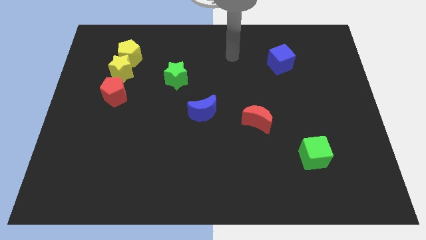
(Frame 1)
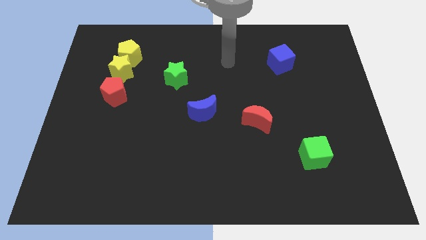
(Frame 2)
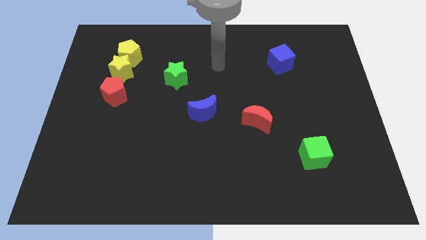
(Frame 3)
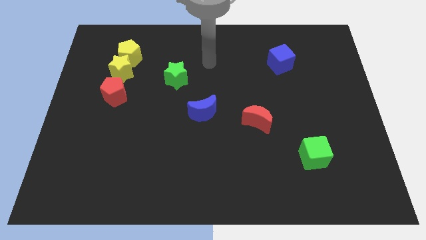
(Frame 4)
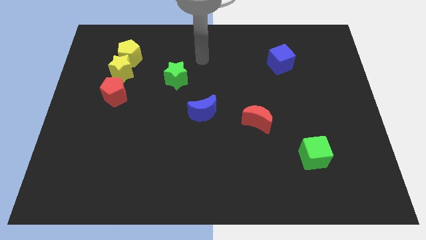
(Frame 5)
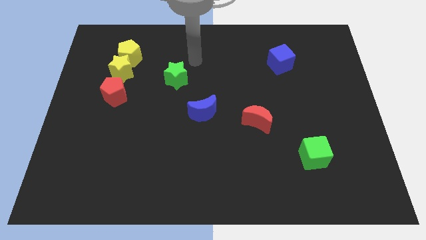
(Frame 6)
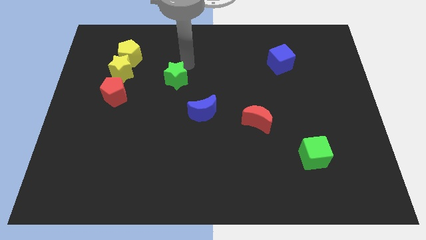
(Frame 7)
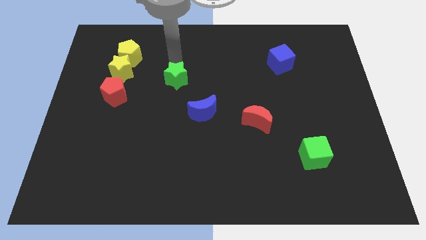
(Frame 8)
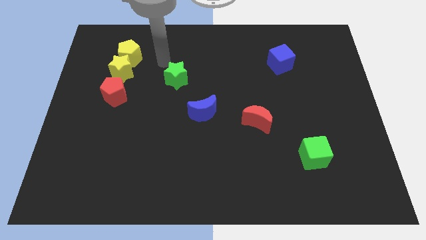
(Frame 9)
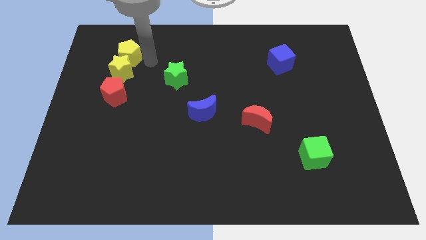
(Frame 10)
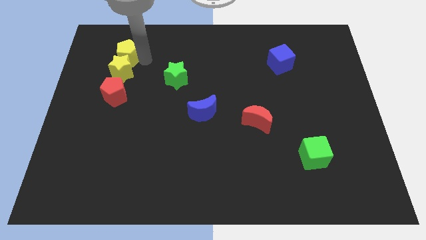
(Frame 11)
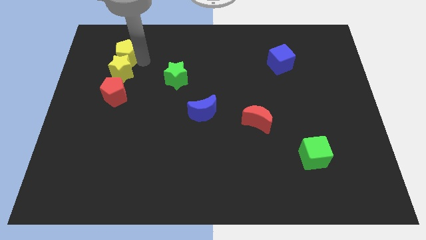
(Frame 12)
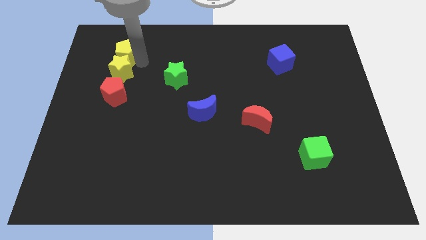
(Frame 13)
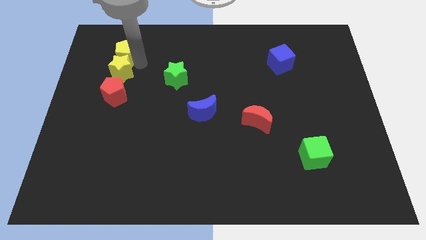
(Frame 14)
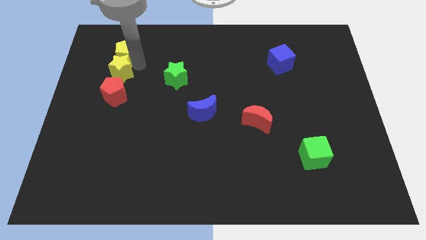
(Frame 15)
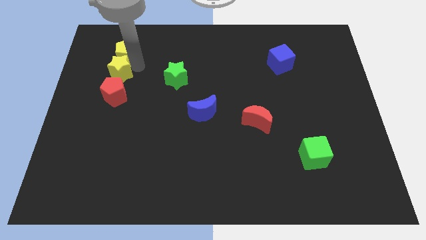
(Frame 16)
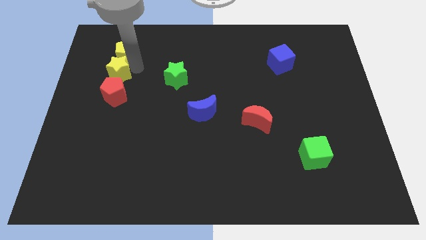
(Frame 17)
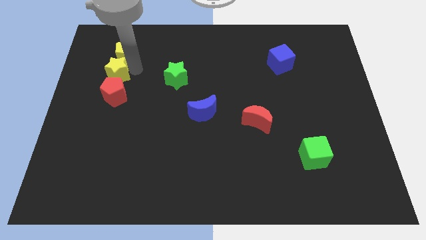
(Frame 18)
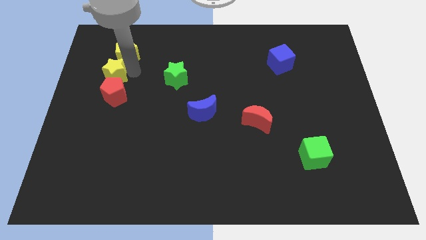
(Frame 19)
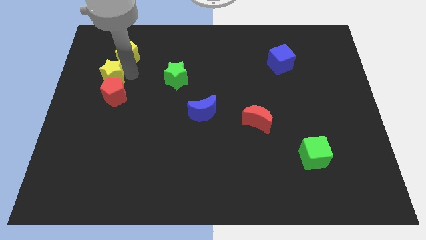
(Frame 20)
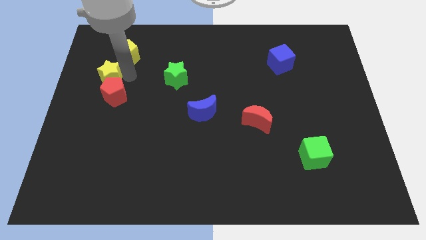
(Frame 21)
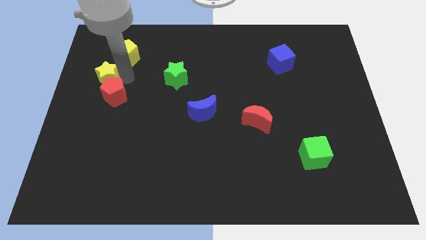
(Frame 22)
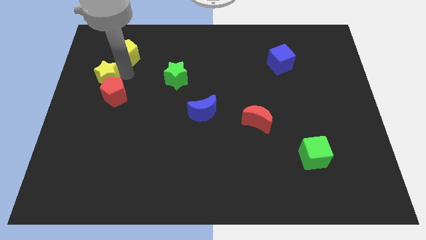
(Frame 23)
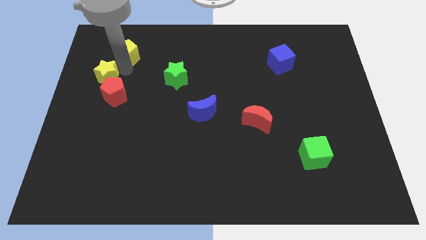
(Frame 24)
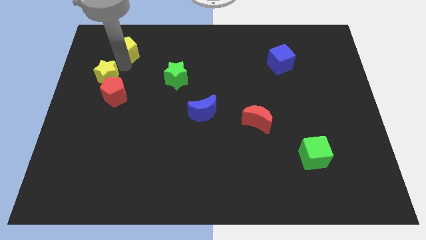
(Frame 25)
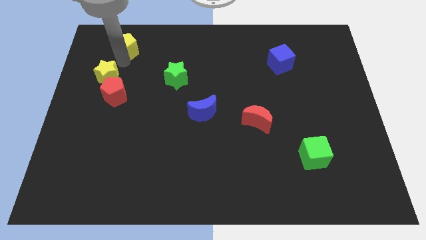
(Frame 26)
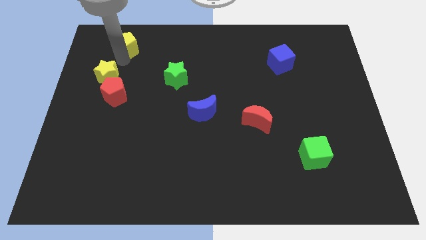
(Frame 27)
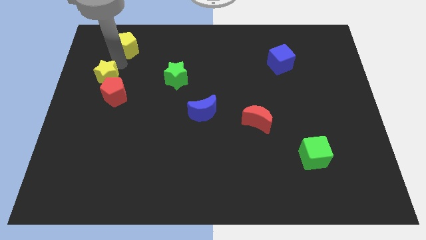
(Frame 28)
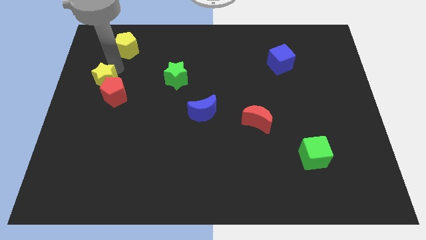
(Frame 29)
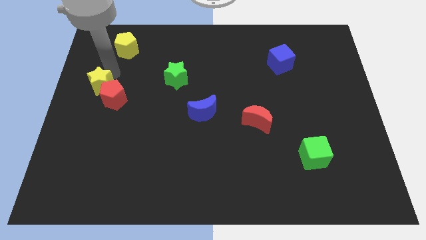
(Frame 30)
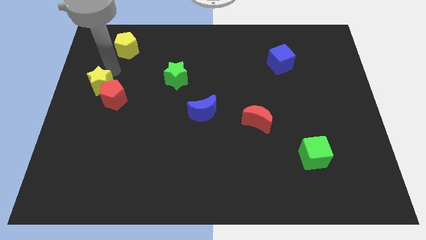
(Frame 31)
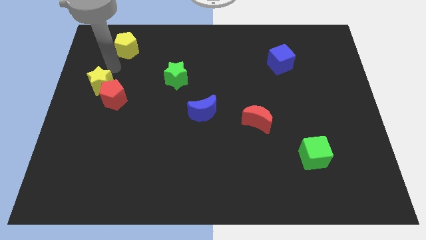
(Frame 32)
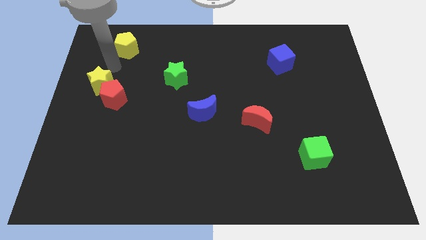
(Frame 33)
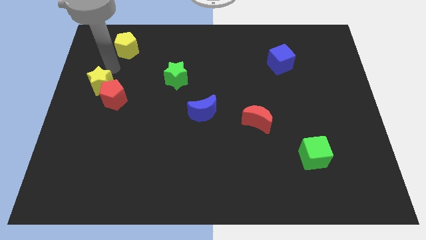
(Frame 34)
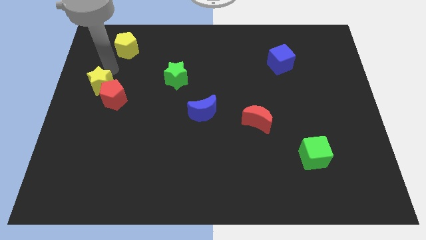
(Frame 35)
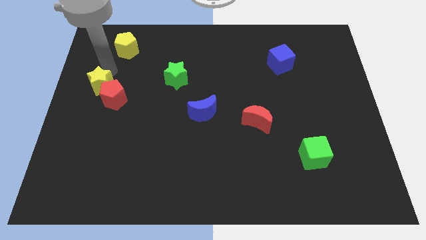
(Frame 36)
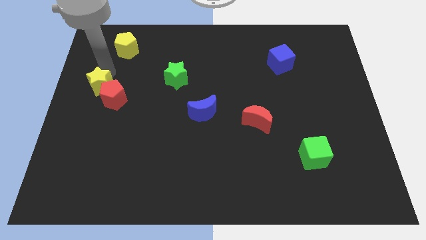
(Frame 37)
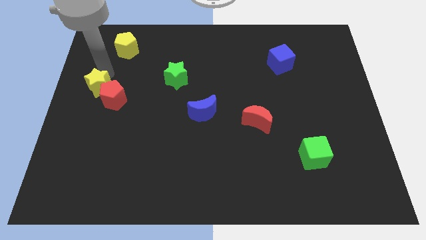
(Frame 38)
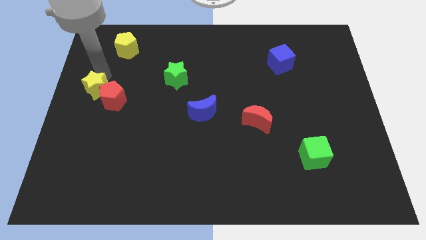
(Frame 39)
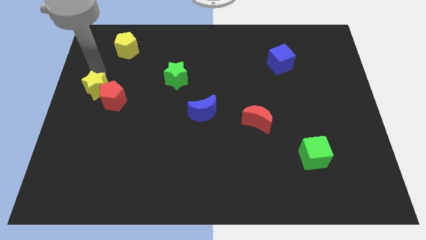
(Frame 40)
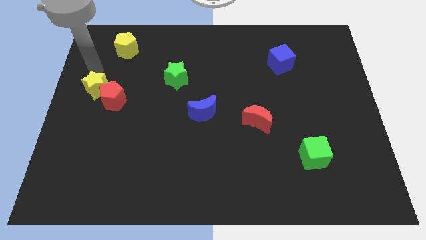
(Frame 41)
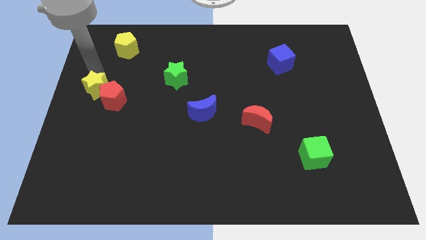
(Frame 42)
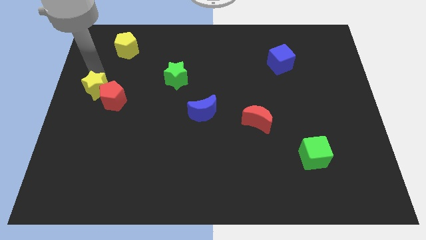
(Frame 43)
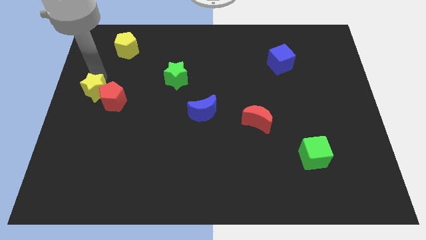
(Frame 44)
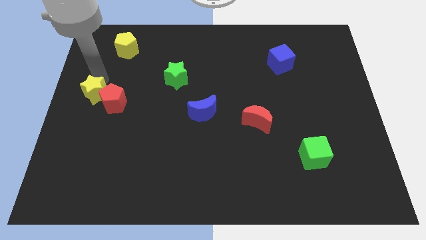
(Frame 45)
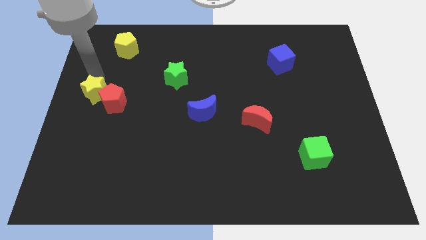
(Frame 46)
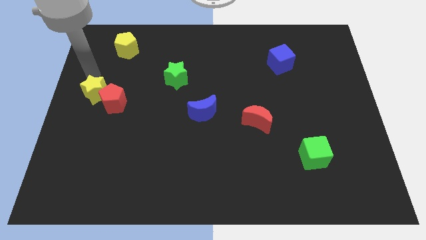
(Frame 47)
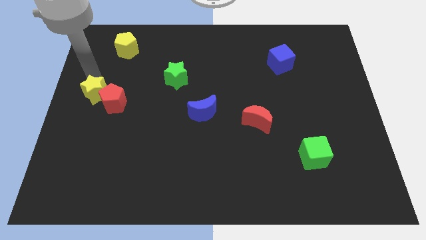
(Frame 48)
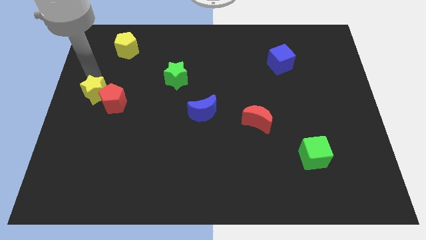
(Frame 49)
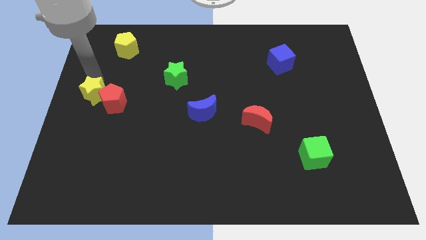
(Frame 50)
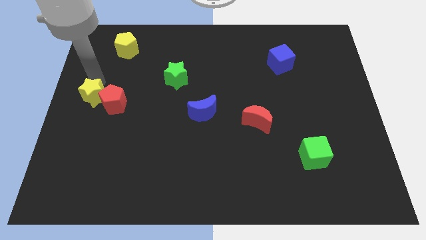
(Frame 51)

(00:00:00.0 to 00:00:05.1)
slide the yellow star slightly down

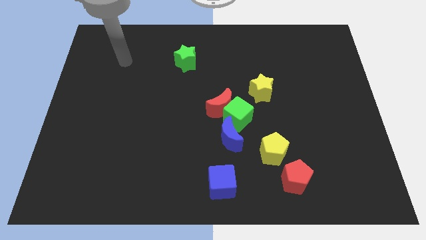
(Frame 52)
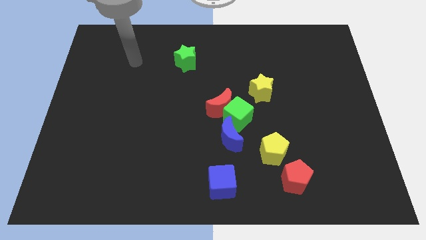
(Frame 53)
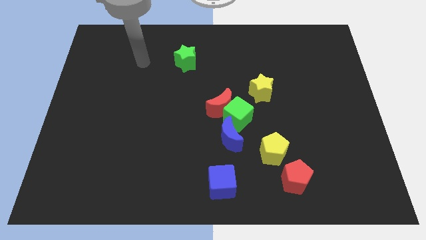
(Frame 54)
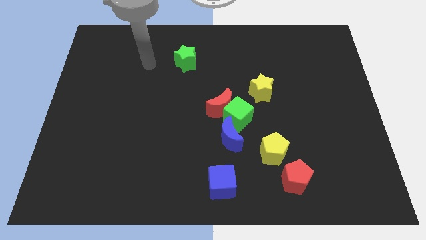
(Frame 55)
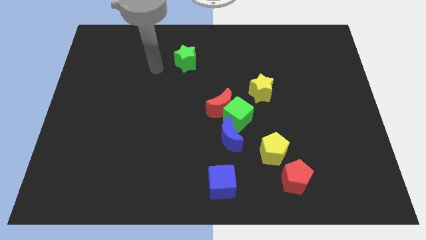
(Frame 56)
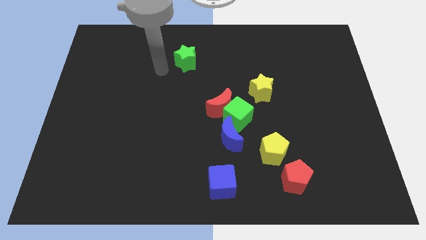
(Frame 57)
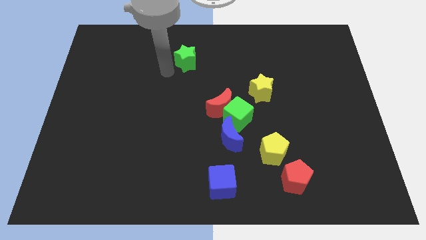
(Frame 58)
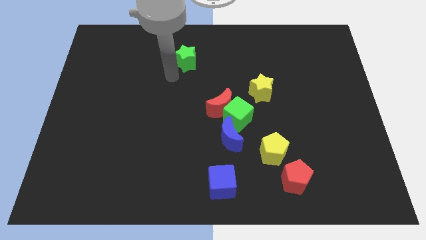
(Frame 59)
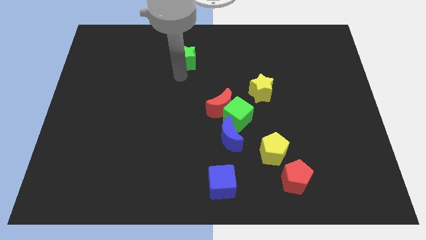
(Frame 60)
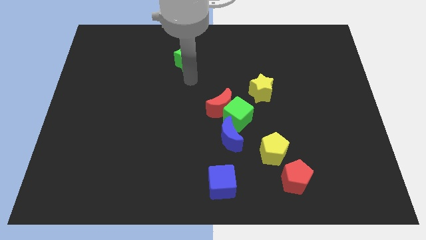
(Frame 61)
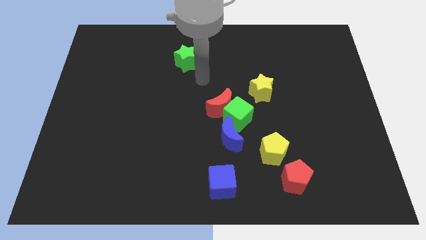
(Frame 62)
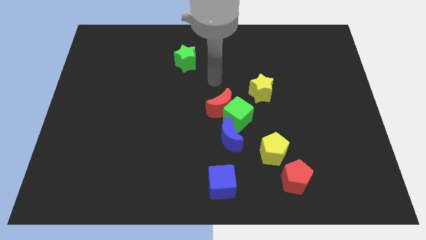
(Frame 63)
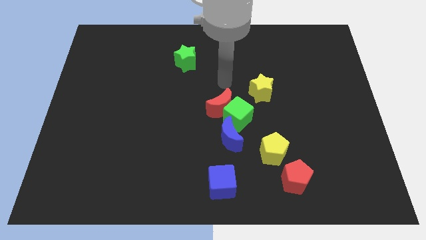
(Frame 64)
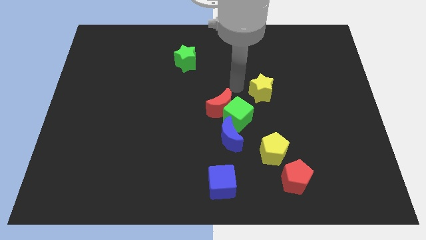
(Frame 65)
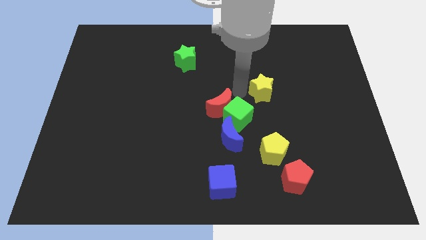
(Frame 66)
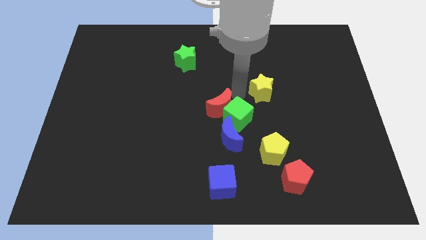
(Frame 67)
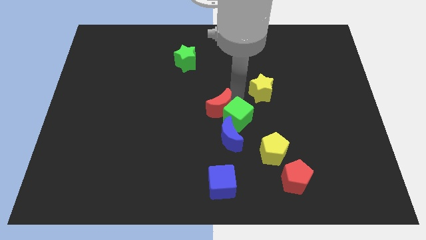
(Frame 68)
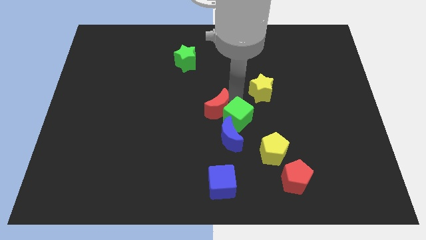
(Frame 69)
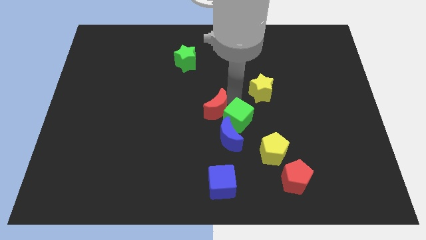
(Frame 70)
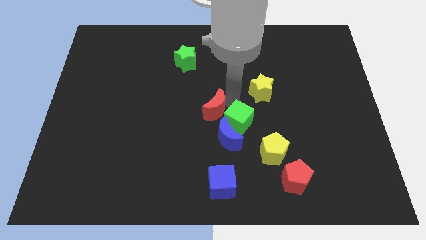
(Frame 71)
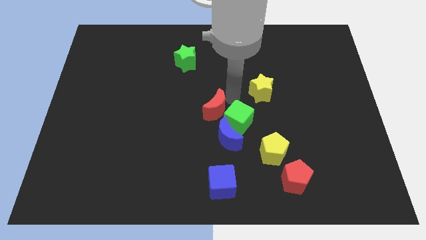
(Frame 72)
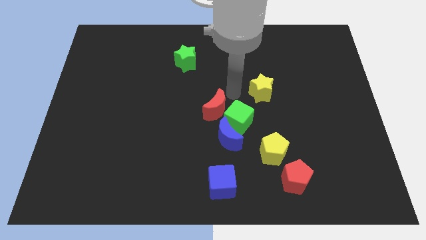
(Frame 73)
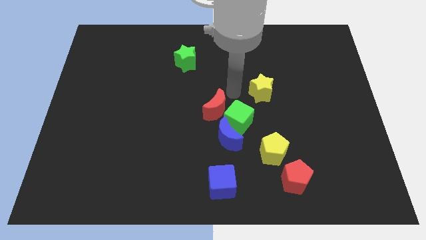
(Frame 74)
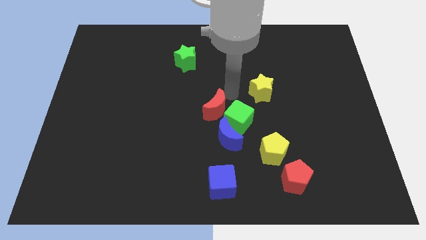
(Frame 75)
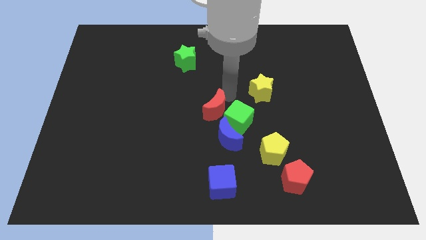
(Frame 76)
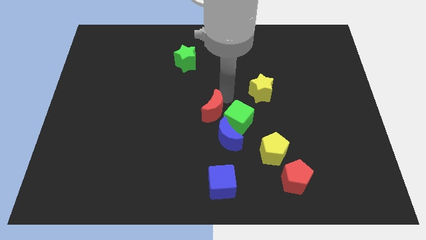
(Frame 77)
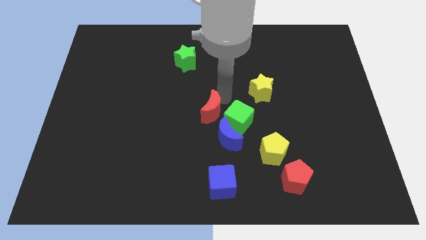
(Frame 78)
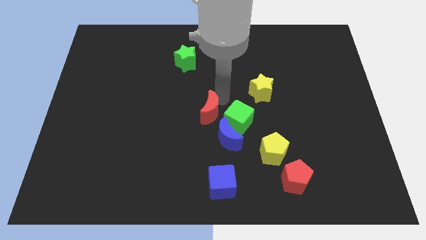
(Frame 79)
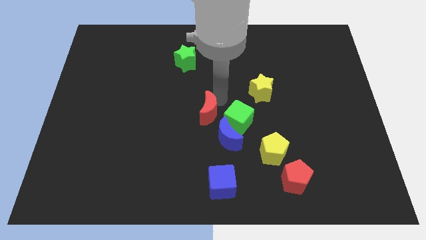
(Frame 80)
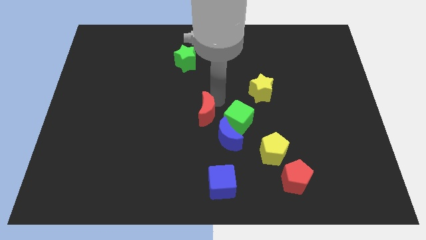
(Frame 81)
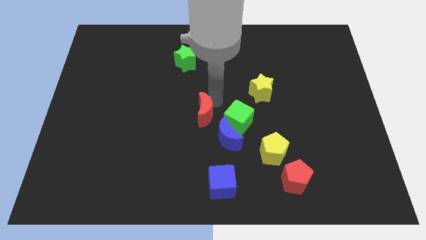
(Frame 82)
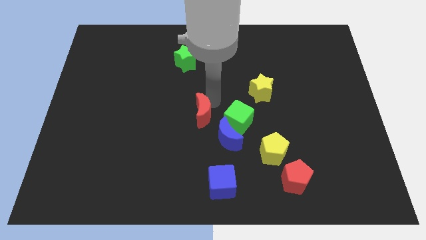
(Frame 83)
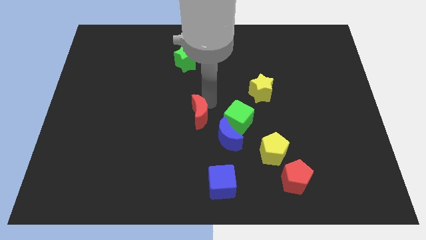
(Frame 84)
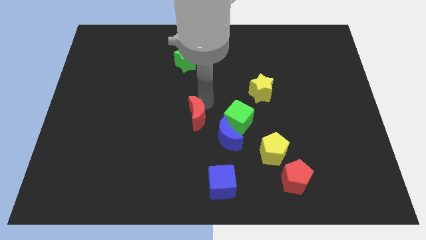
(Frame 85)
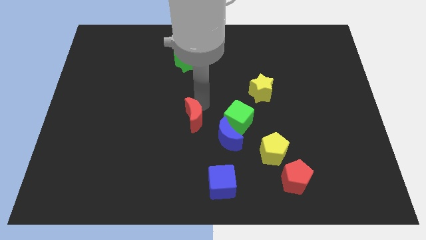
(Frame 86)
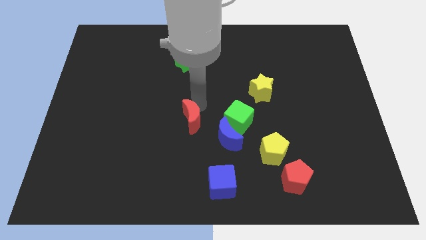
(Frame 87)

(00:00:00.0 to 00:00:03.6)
slightly slide the red moon down and then to the left
